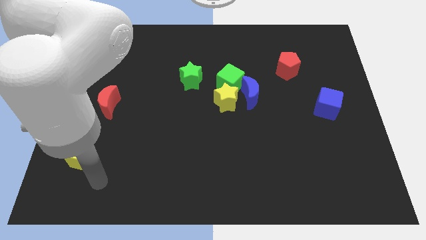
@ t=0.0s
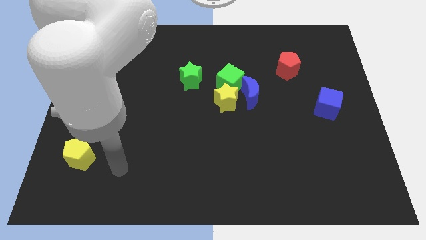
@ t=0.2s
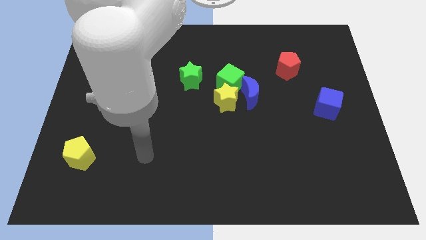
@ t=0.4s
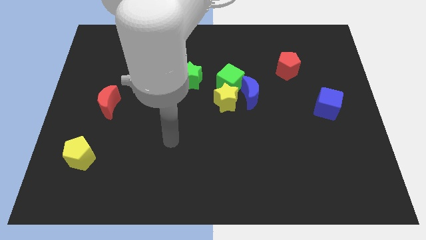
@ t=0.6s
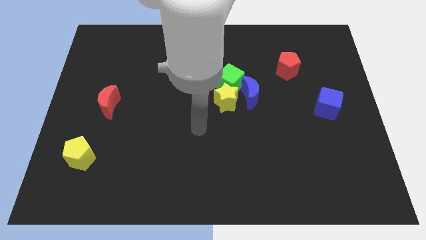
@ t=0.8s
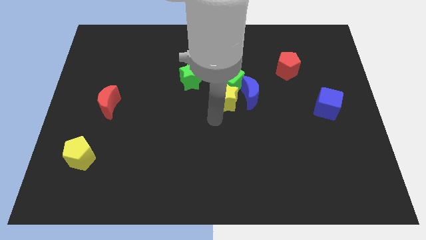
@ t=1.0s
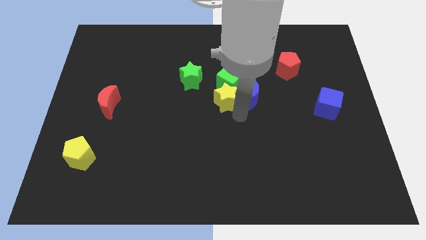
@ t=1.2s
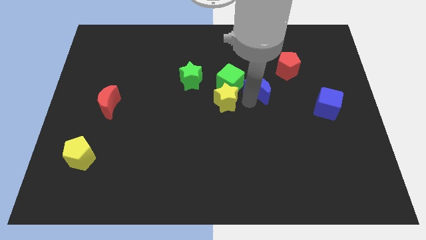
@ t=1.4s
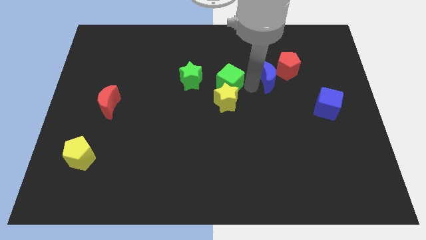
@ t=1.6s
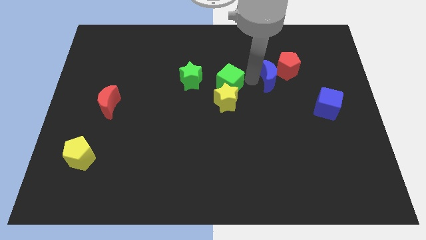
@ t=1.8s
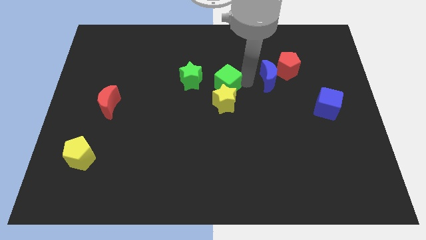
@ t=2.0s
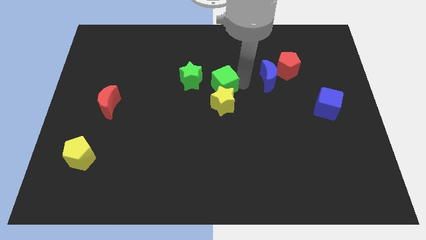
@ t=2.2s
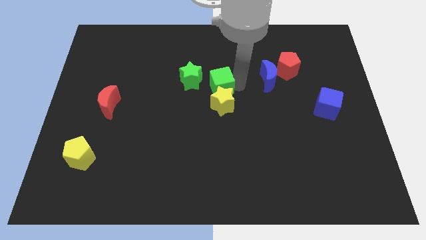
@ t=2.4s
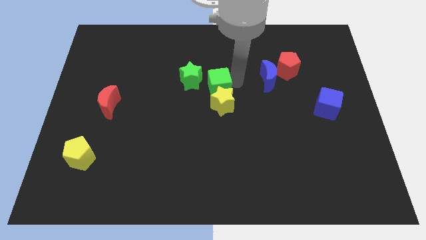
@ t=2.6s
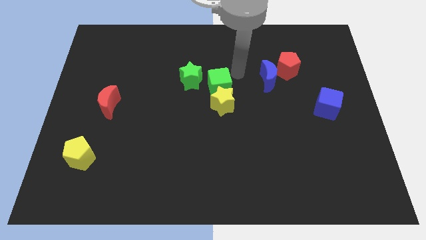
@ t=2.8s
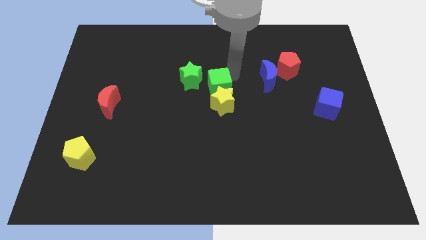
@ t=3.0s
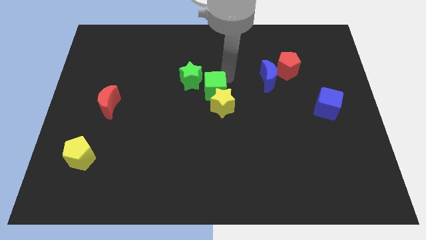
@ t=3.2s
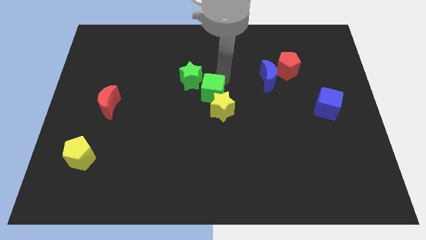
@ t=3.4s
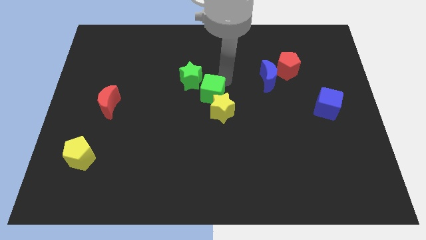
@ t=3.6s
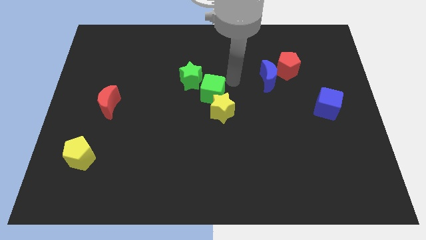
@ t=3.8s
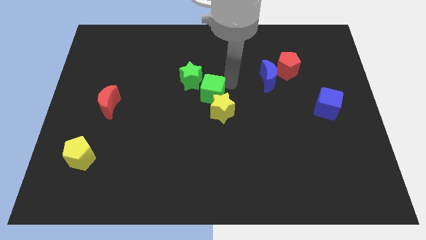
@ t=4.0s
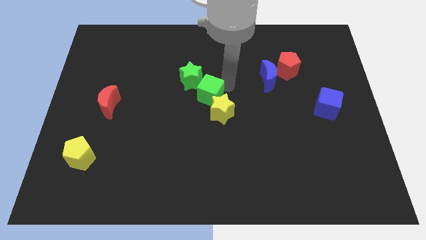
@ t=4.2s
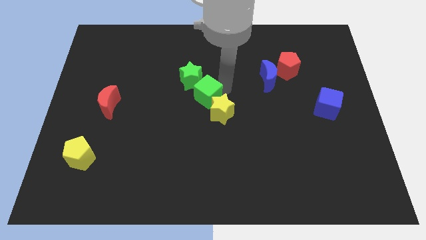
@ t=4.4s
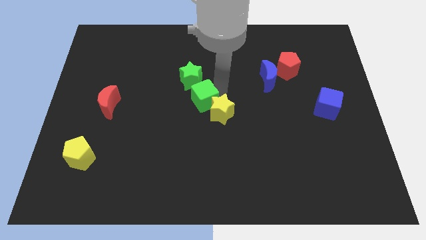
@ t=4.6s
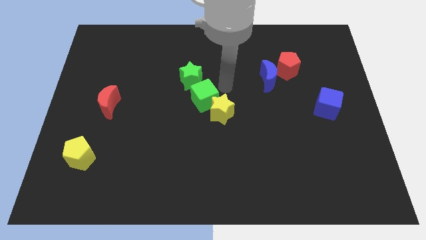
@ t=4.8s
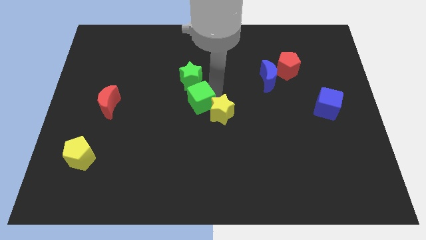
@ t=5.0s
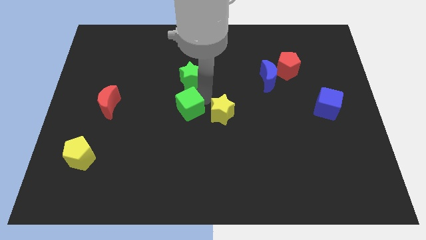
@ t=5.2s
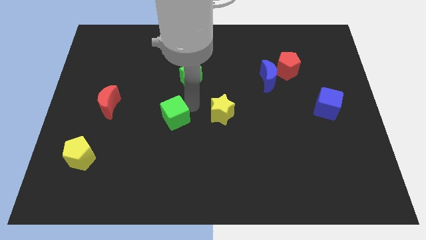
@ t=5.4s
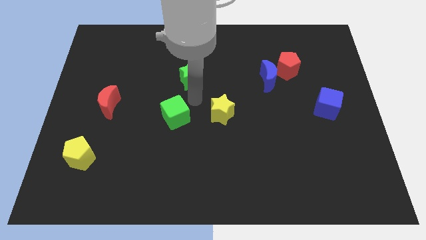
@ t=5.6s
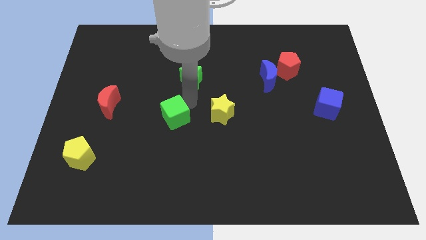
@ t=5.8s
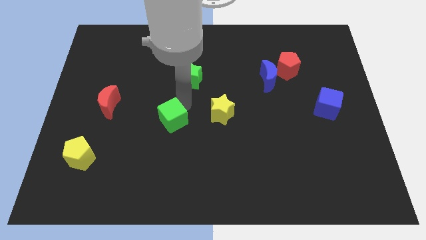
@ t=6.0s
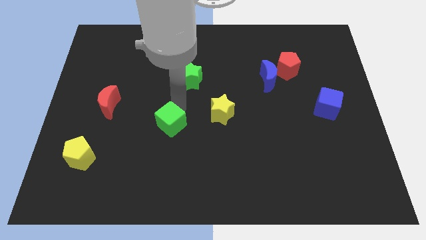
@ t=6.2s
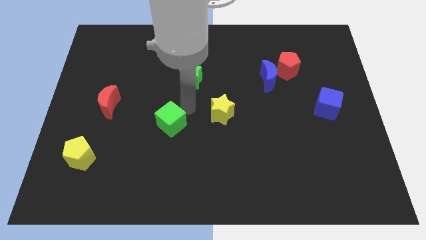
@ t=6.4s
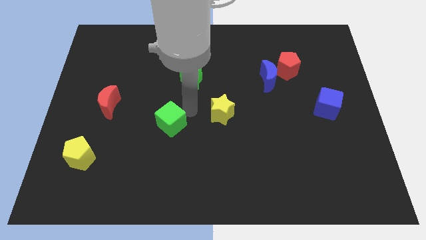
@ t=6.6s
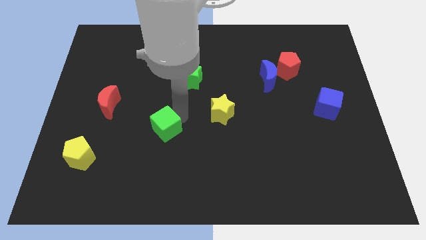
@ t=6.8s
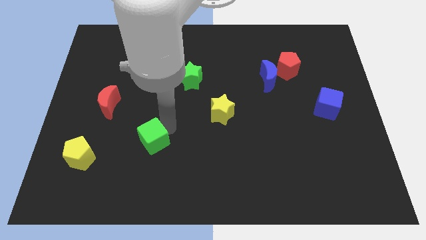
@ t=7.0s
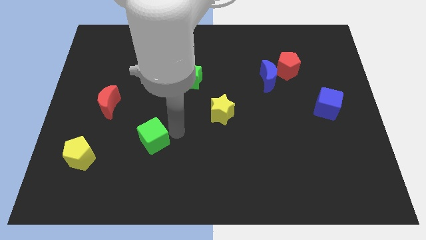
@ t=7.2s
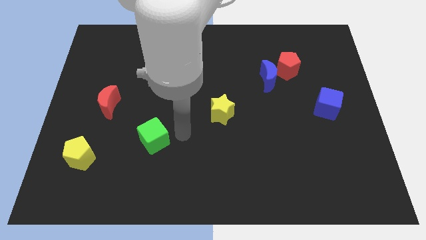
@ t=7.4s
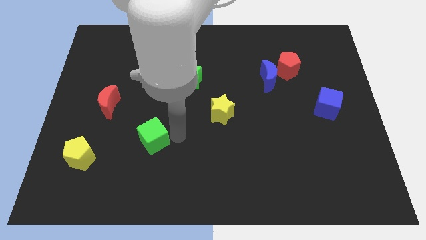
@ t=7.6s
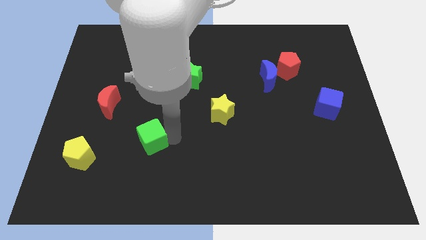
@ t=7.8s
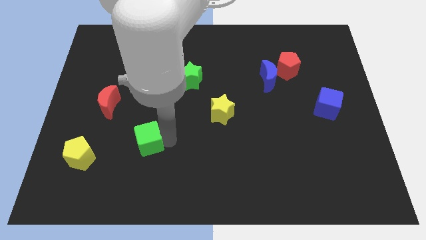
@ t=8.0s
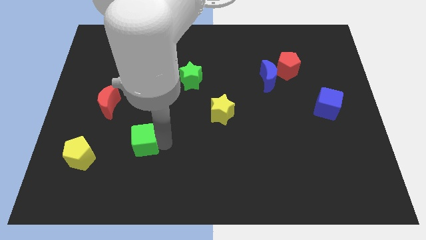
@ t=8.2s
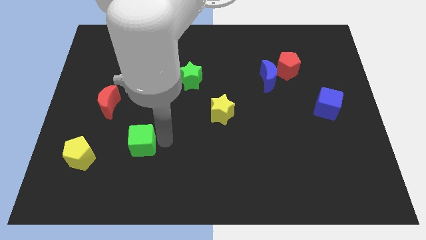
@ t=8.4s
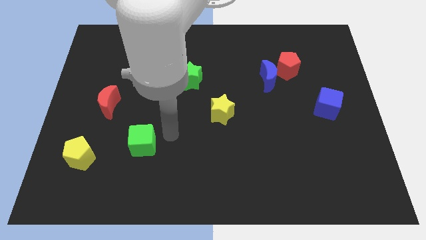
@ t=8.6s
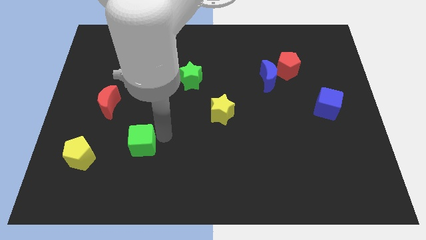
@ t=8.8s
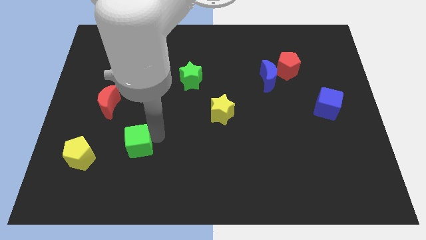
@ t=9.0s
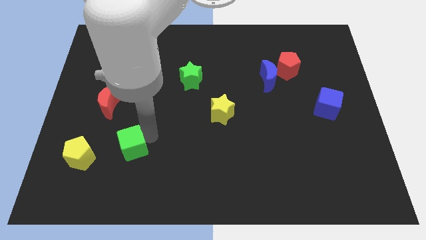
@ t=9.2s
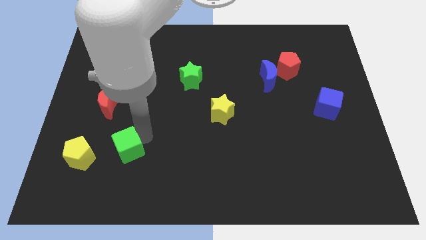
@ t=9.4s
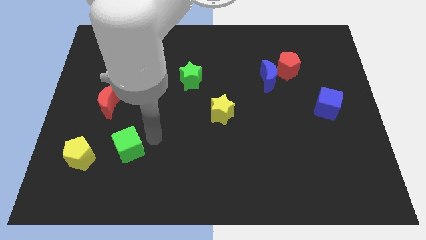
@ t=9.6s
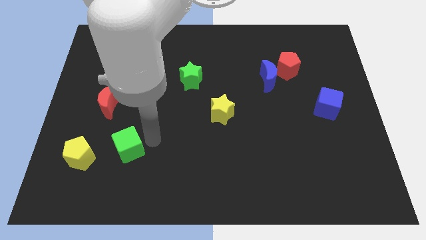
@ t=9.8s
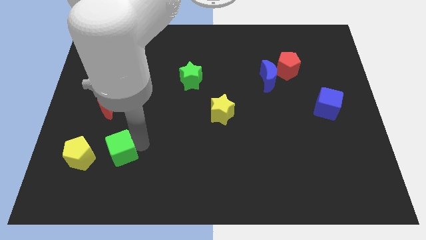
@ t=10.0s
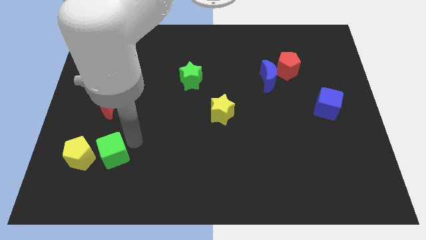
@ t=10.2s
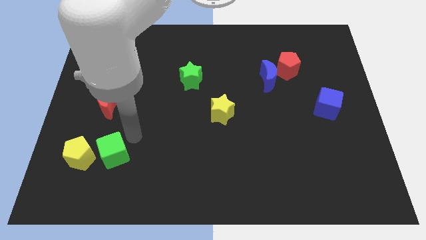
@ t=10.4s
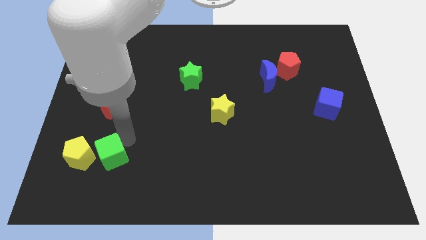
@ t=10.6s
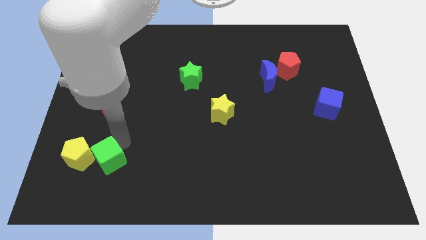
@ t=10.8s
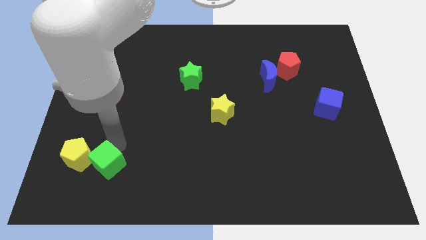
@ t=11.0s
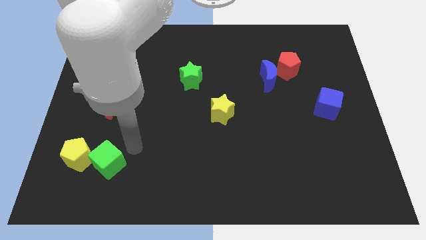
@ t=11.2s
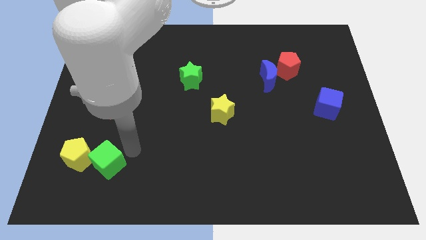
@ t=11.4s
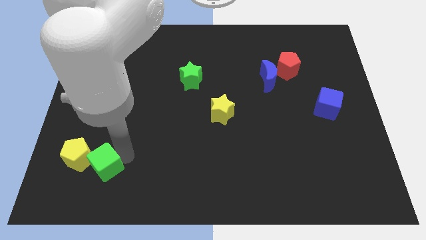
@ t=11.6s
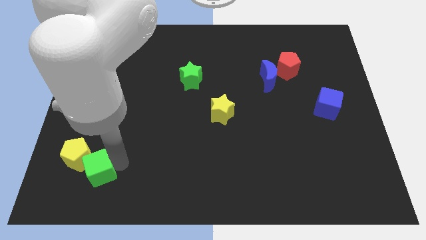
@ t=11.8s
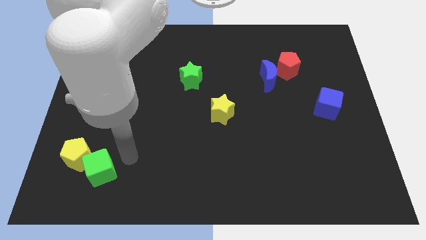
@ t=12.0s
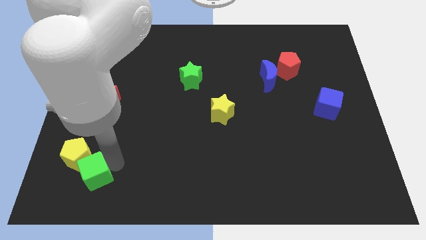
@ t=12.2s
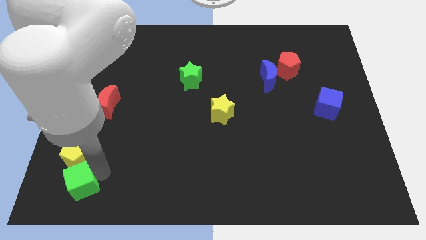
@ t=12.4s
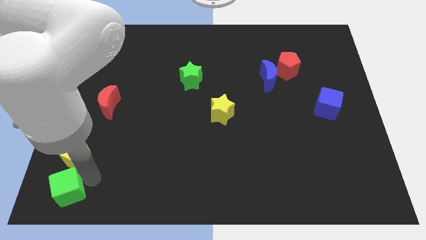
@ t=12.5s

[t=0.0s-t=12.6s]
slide the green cube to the lower left corner
